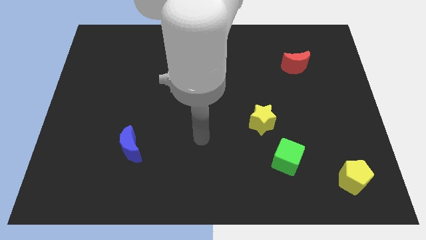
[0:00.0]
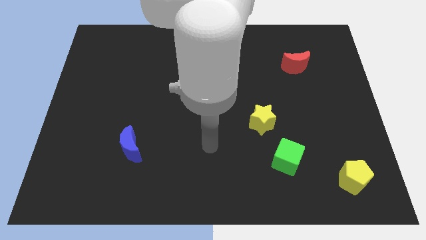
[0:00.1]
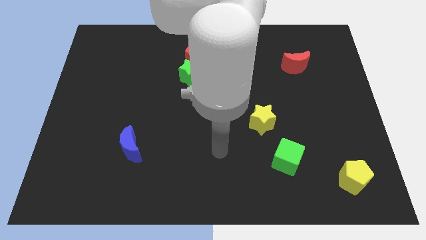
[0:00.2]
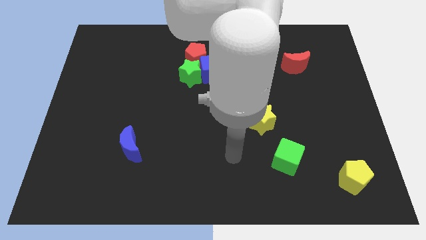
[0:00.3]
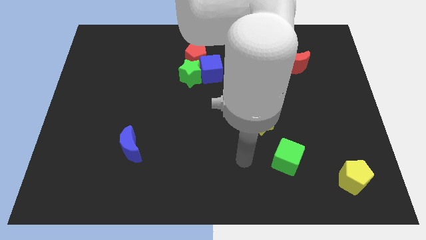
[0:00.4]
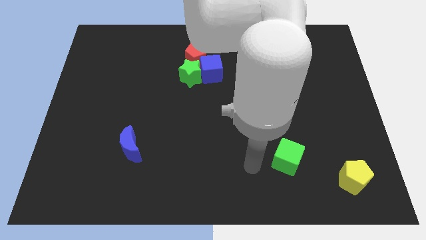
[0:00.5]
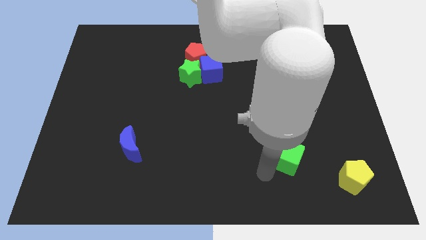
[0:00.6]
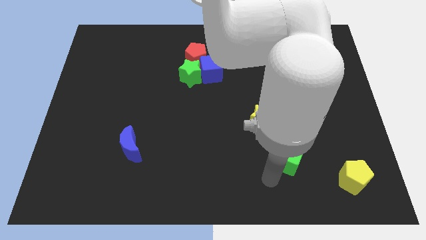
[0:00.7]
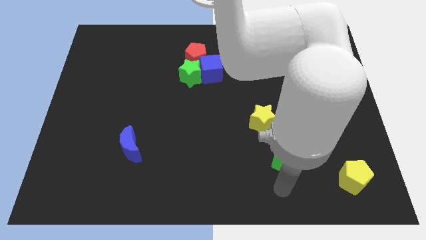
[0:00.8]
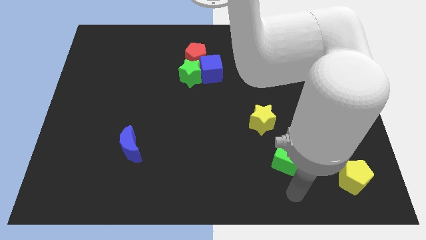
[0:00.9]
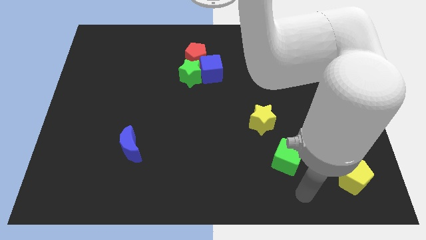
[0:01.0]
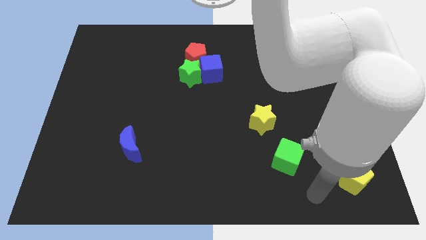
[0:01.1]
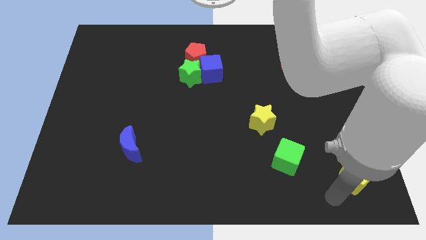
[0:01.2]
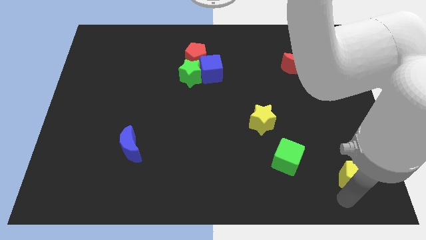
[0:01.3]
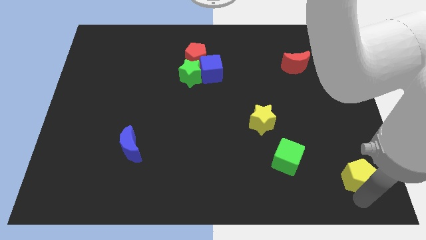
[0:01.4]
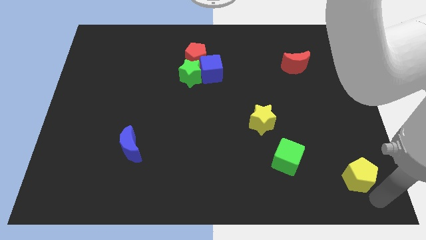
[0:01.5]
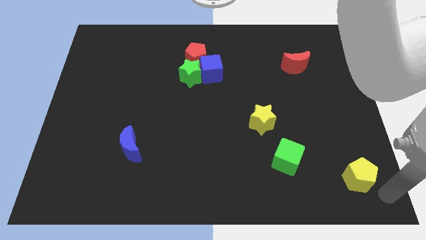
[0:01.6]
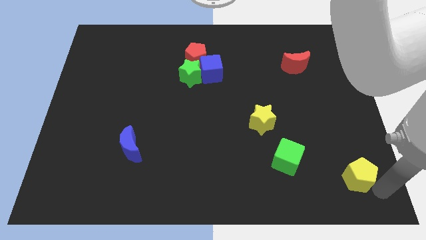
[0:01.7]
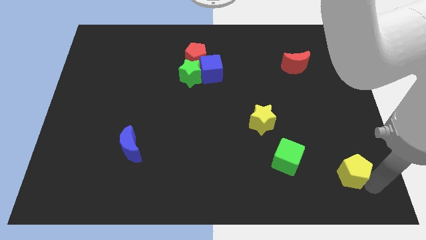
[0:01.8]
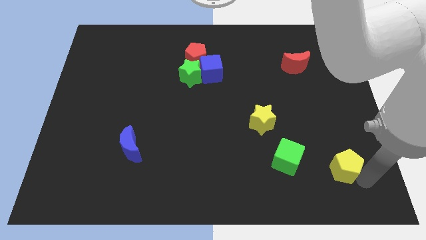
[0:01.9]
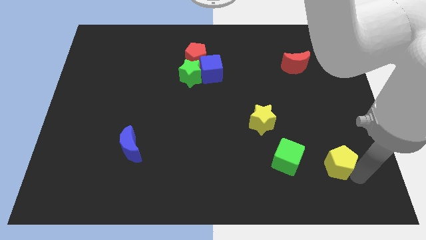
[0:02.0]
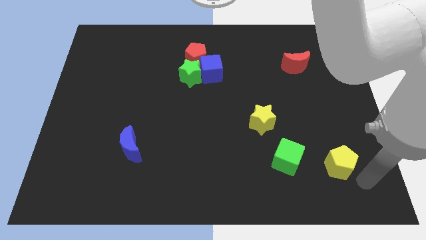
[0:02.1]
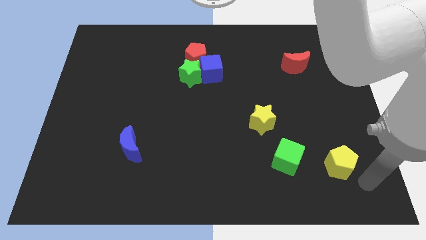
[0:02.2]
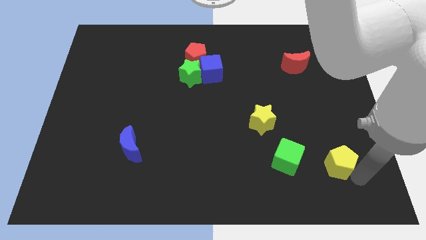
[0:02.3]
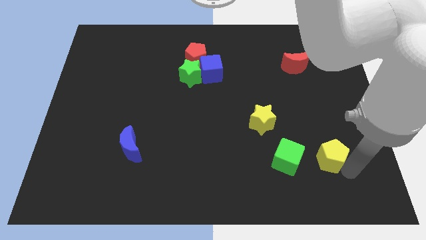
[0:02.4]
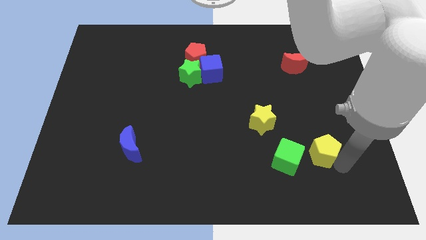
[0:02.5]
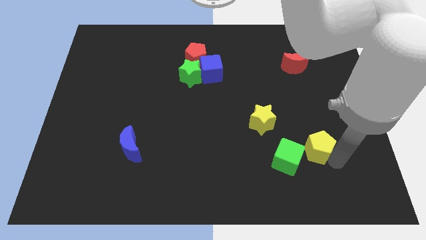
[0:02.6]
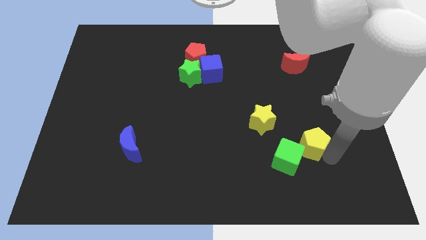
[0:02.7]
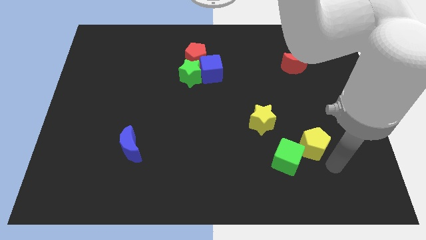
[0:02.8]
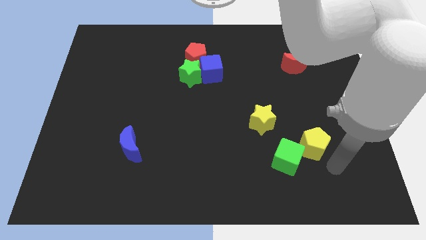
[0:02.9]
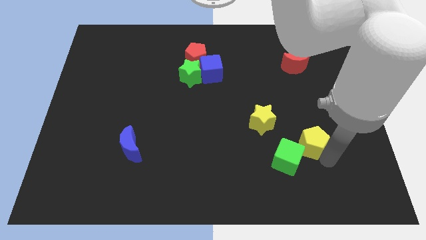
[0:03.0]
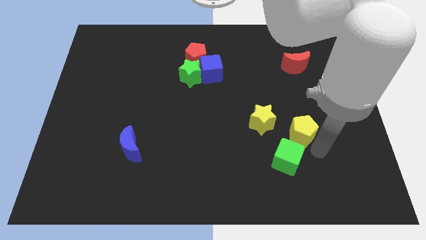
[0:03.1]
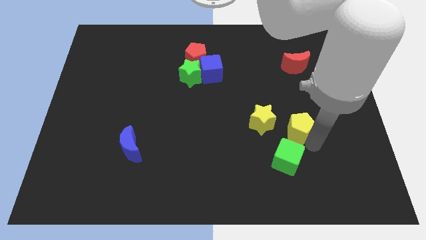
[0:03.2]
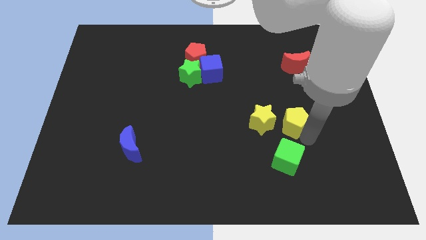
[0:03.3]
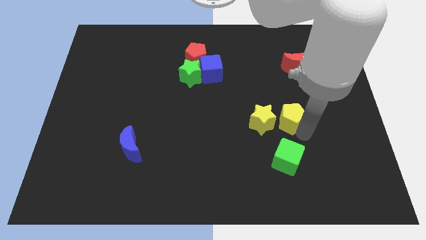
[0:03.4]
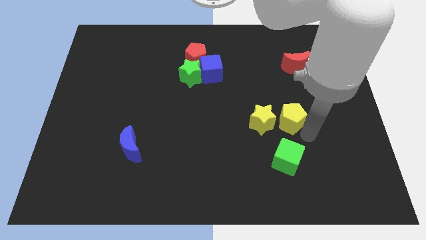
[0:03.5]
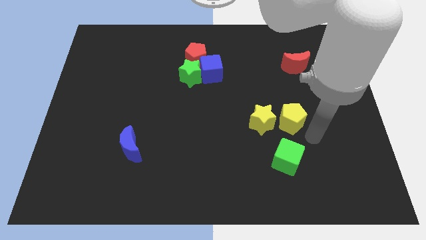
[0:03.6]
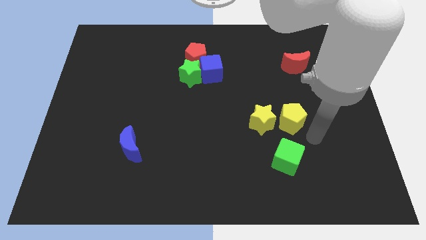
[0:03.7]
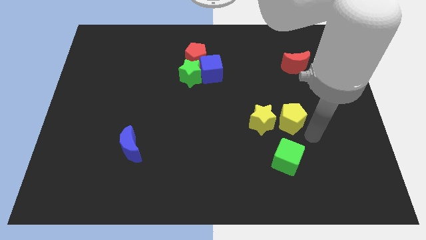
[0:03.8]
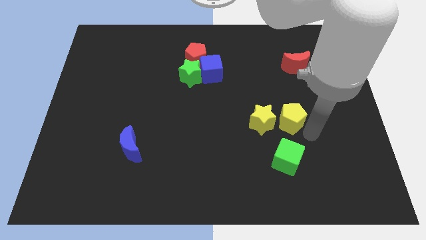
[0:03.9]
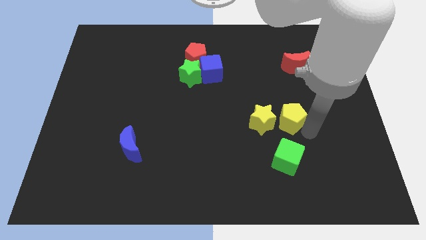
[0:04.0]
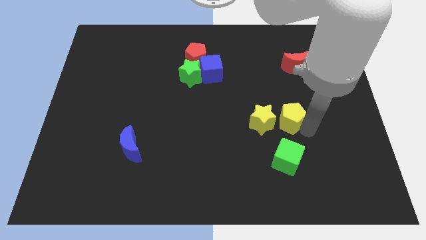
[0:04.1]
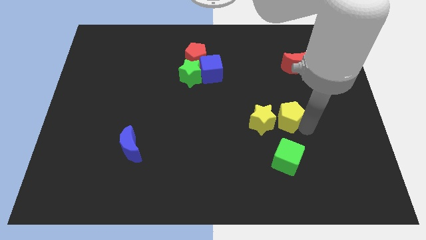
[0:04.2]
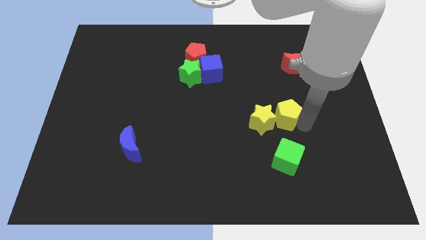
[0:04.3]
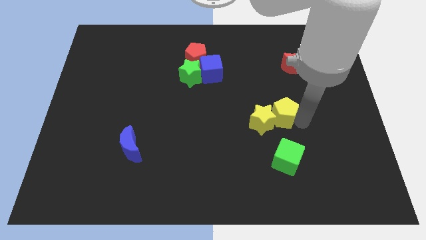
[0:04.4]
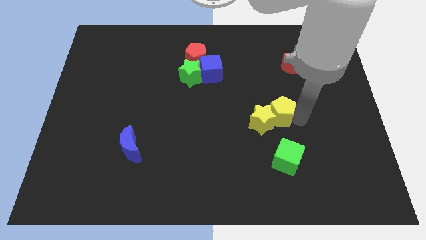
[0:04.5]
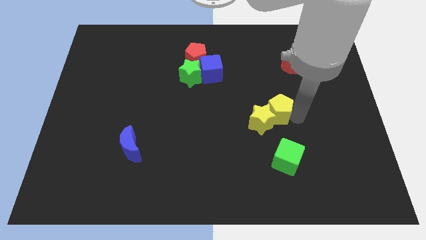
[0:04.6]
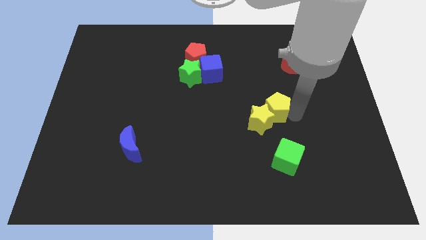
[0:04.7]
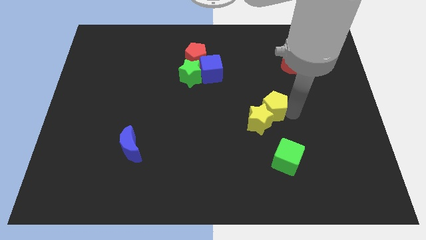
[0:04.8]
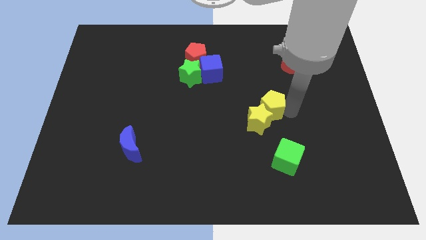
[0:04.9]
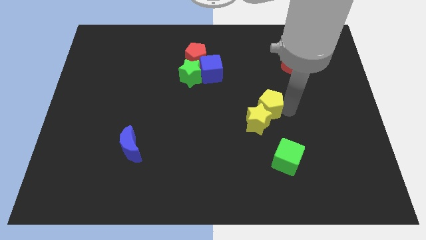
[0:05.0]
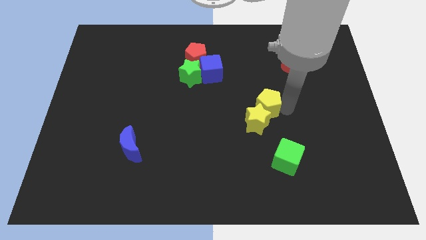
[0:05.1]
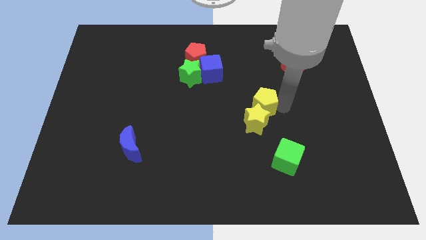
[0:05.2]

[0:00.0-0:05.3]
push the yellow pentagon to the middle of the board

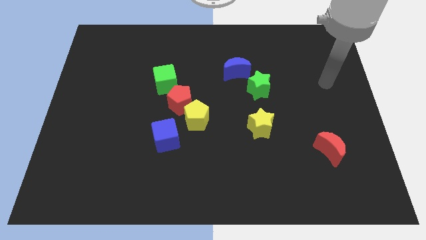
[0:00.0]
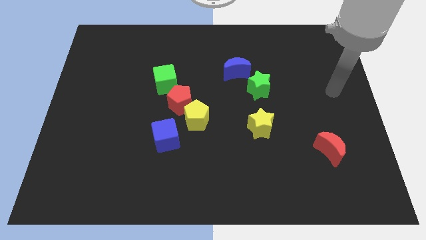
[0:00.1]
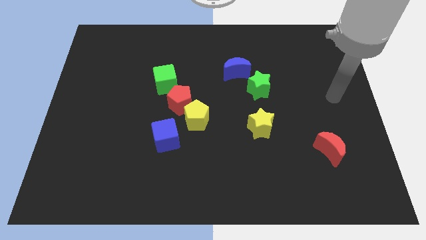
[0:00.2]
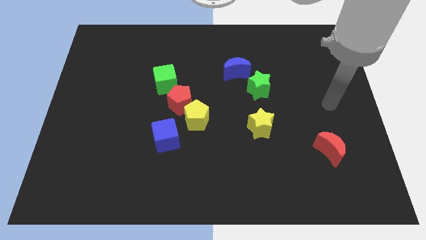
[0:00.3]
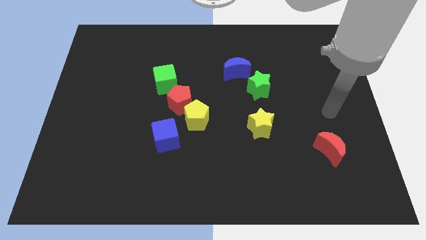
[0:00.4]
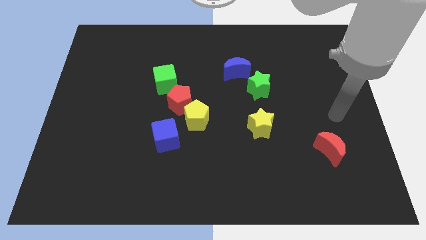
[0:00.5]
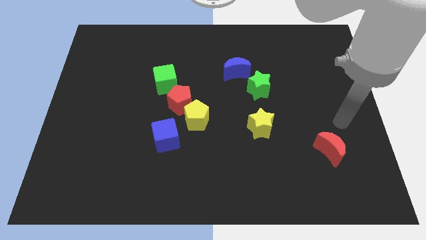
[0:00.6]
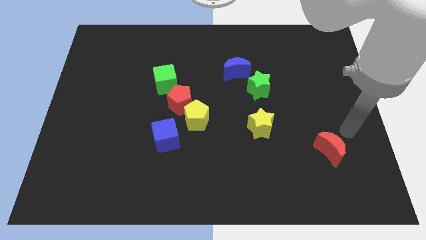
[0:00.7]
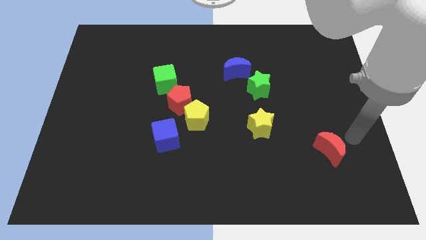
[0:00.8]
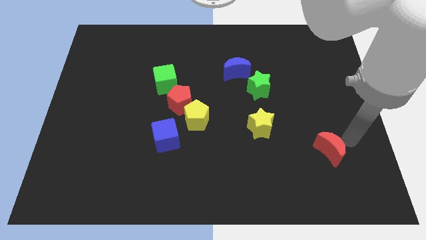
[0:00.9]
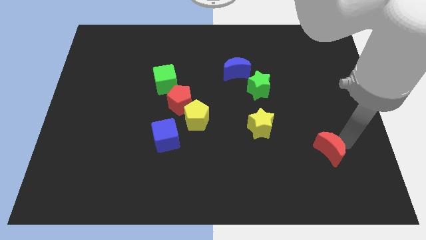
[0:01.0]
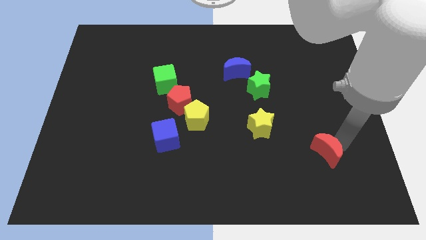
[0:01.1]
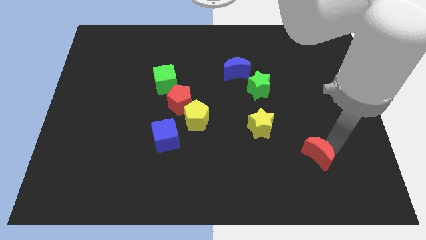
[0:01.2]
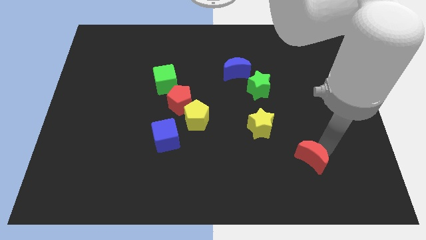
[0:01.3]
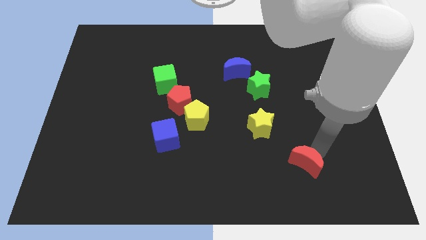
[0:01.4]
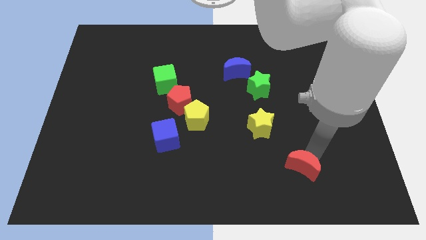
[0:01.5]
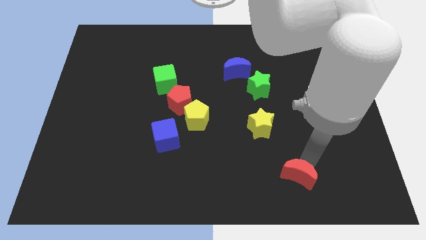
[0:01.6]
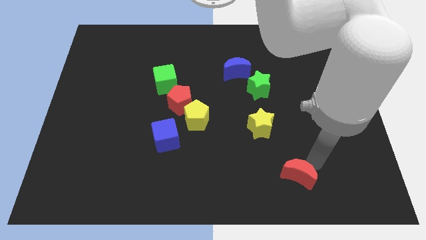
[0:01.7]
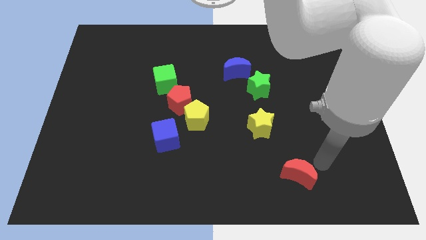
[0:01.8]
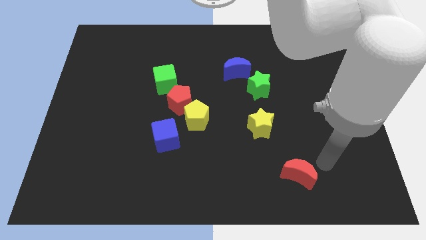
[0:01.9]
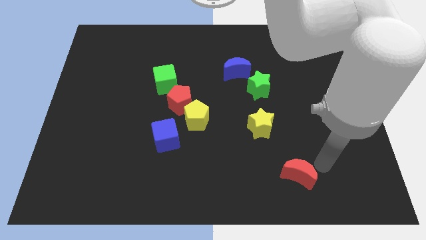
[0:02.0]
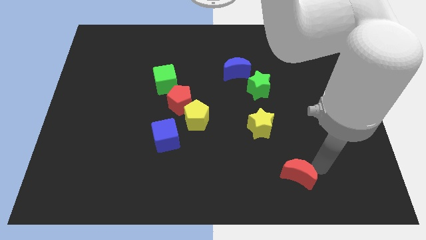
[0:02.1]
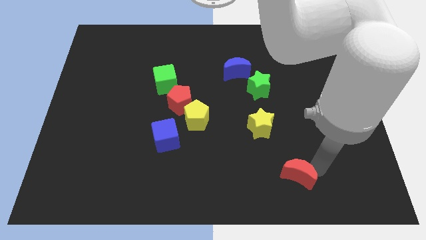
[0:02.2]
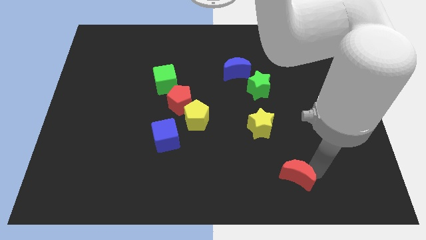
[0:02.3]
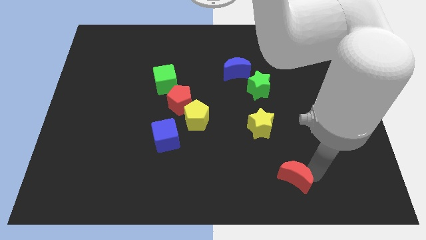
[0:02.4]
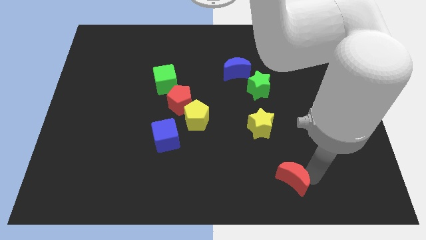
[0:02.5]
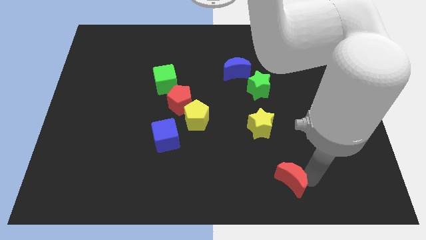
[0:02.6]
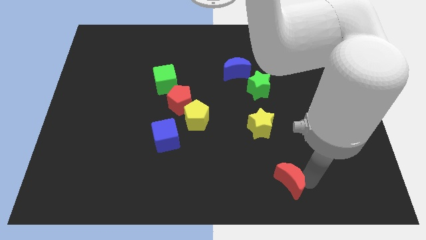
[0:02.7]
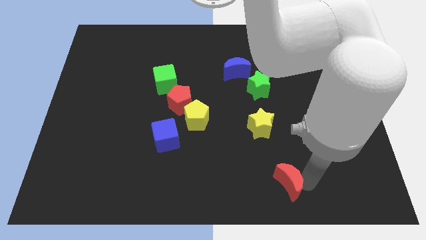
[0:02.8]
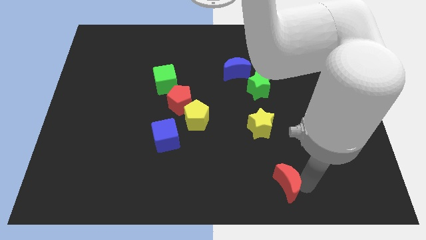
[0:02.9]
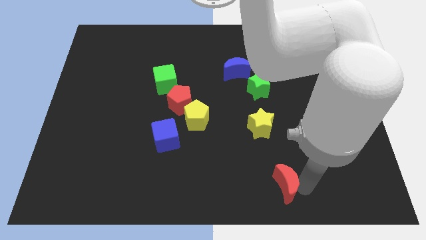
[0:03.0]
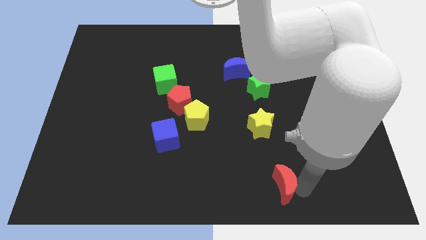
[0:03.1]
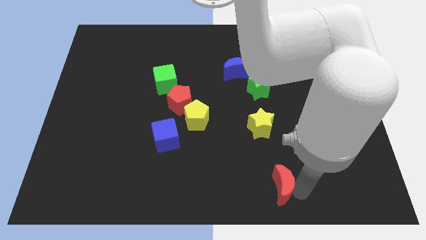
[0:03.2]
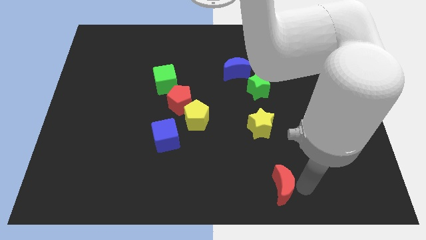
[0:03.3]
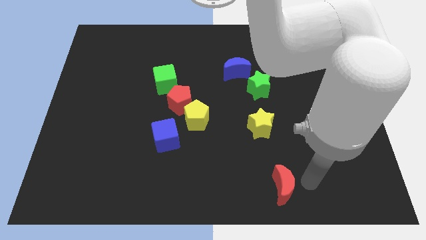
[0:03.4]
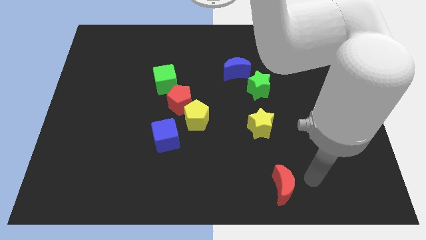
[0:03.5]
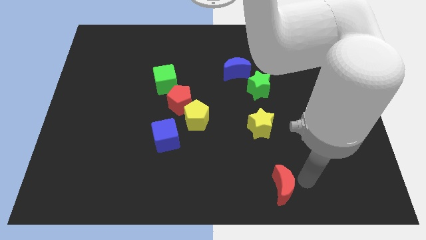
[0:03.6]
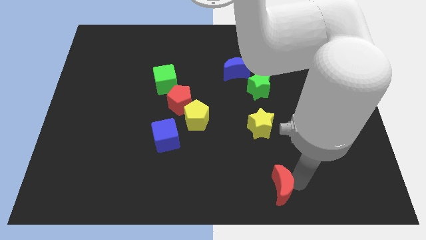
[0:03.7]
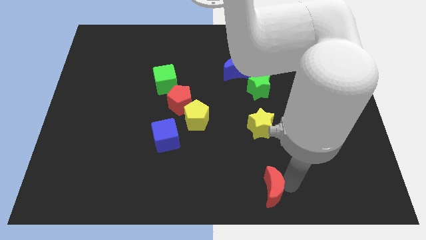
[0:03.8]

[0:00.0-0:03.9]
put the red moon to the bottom side
